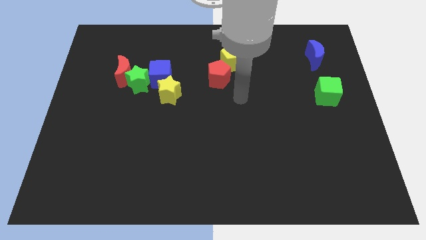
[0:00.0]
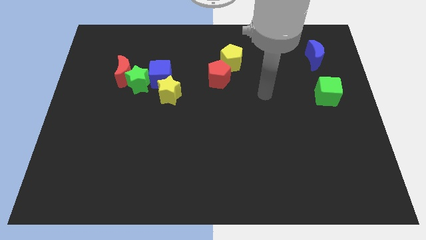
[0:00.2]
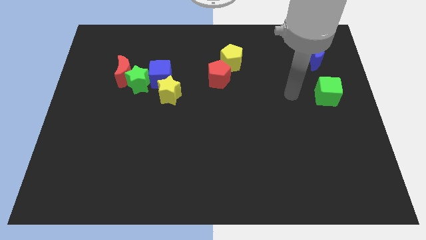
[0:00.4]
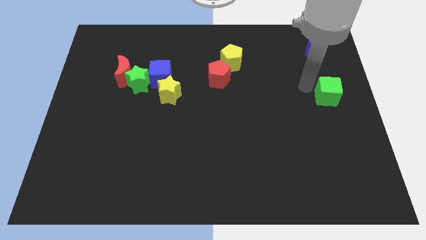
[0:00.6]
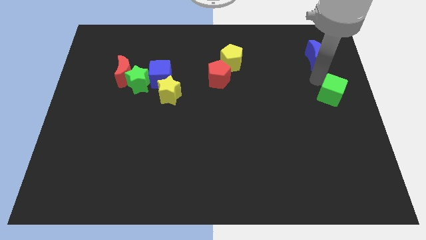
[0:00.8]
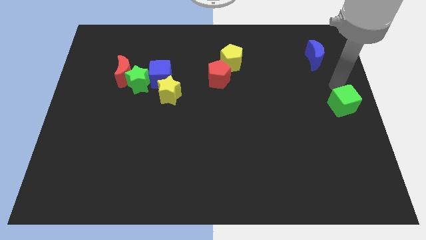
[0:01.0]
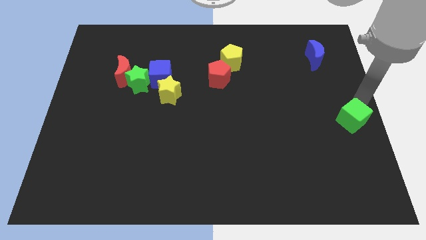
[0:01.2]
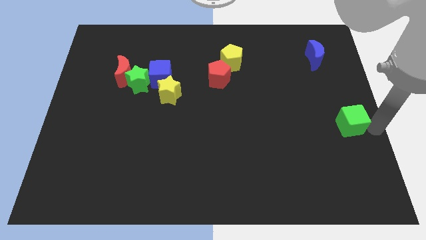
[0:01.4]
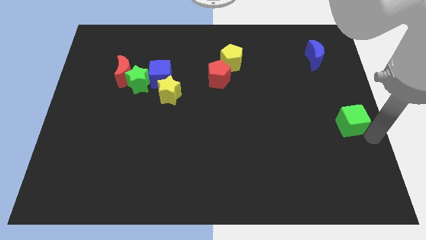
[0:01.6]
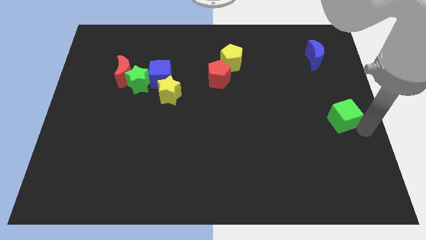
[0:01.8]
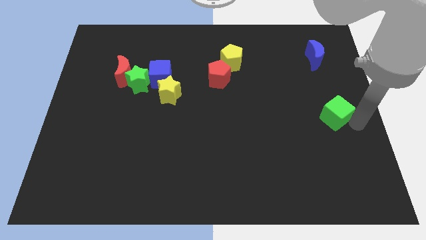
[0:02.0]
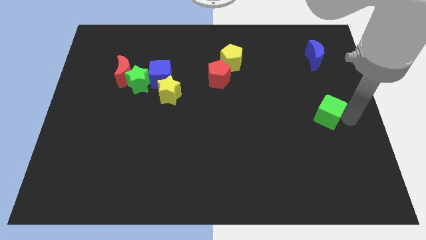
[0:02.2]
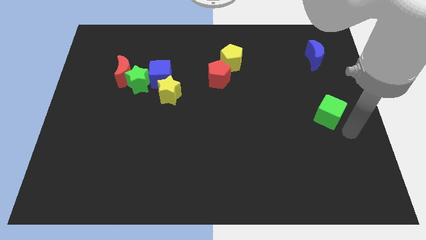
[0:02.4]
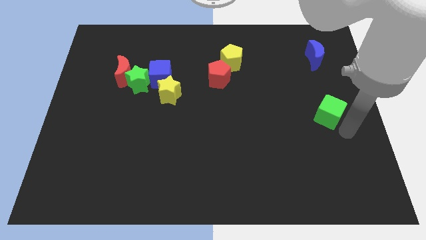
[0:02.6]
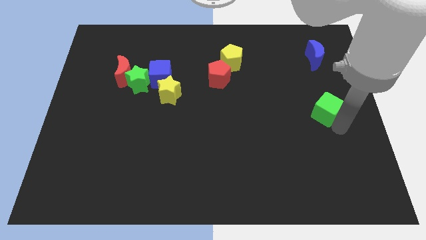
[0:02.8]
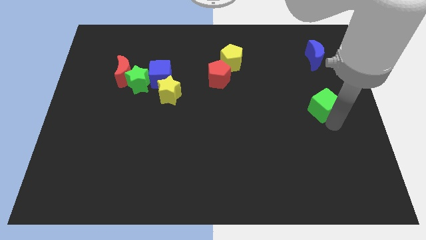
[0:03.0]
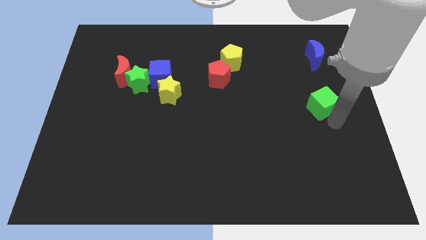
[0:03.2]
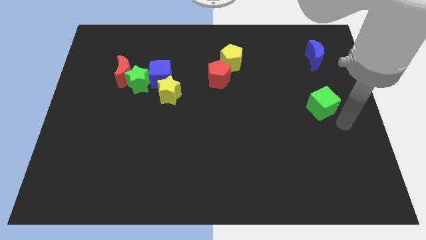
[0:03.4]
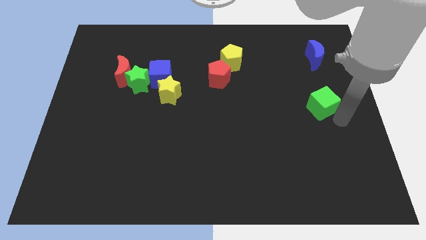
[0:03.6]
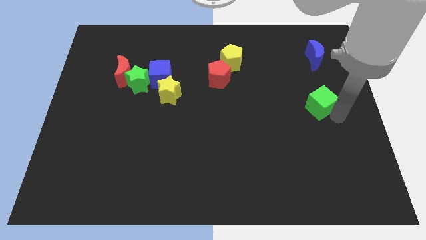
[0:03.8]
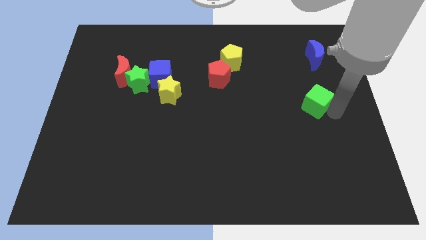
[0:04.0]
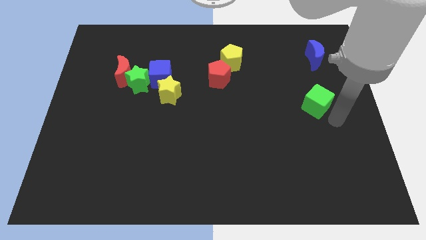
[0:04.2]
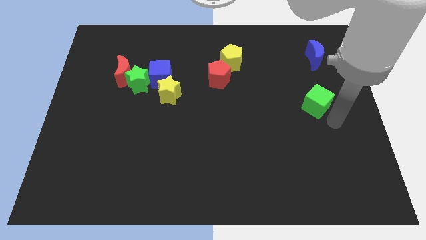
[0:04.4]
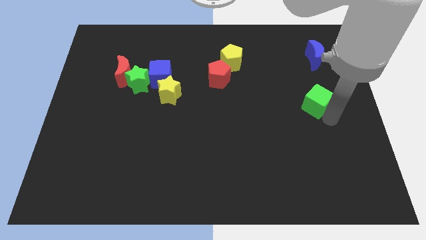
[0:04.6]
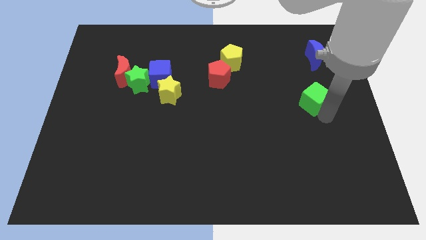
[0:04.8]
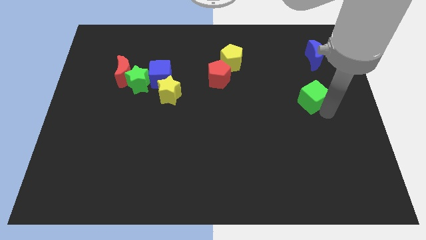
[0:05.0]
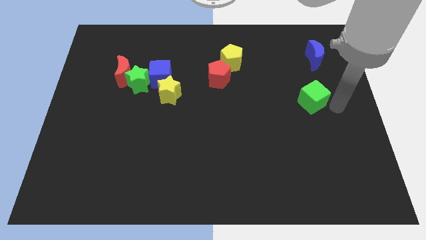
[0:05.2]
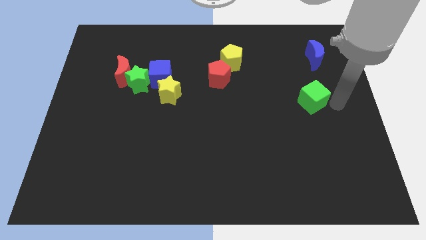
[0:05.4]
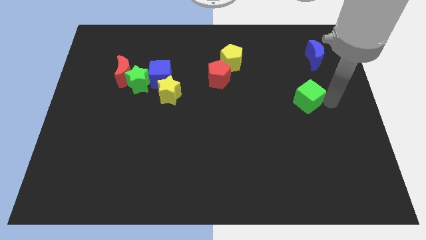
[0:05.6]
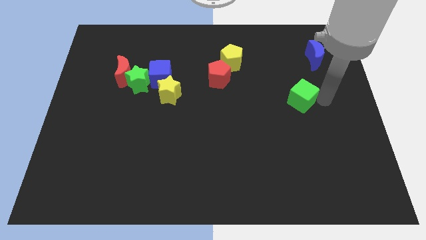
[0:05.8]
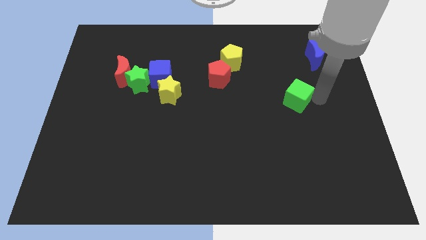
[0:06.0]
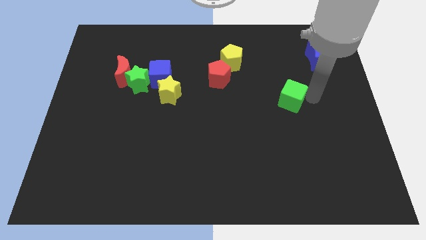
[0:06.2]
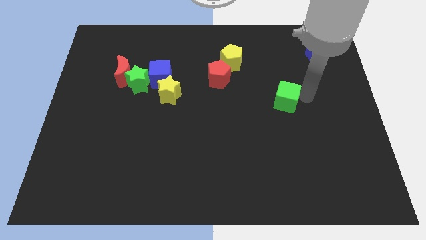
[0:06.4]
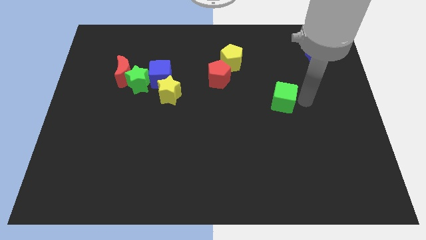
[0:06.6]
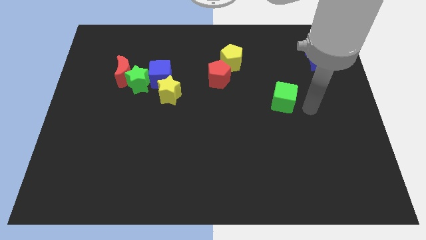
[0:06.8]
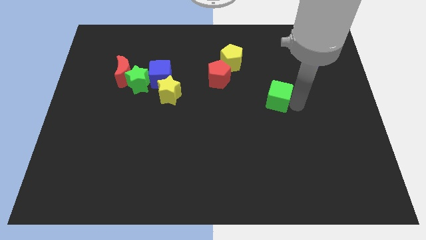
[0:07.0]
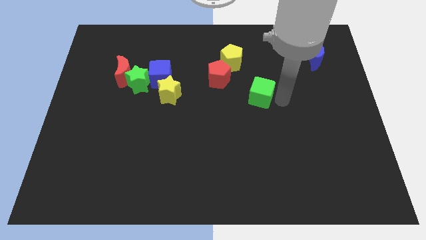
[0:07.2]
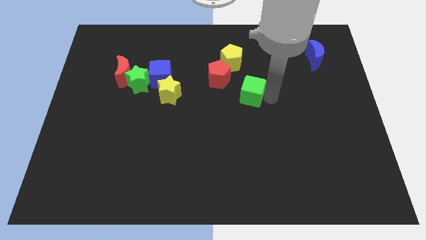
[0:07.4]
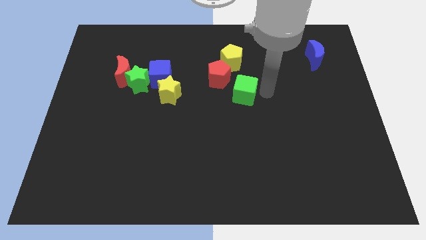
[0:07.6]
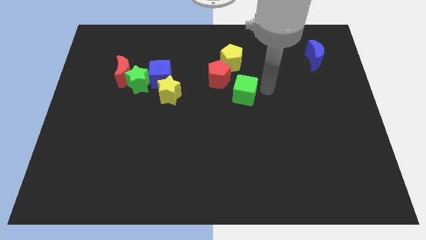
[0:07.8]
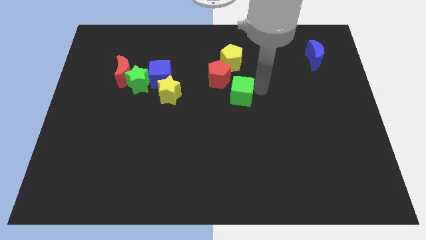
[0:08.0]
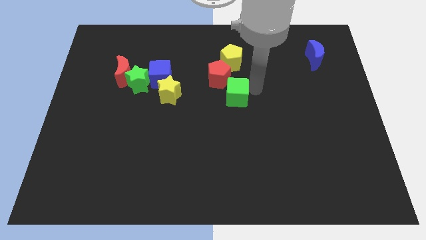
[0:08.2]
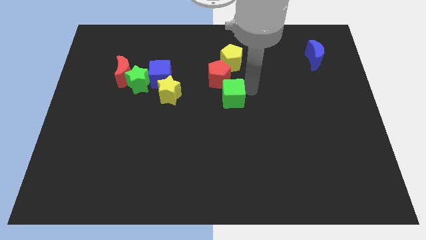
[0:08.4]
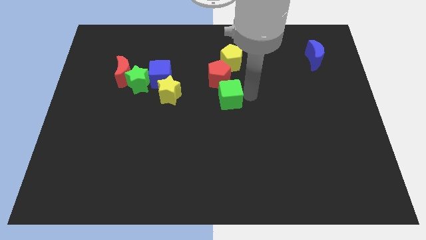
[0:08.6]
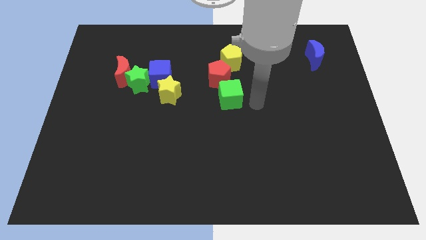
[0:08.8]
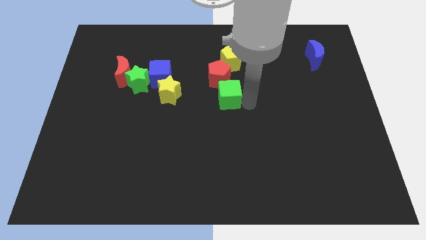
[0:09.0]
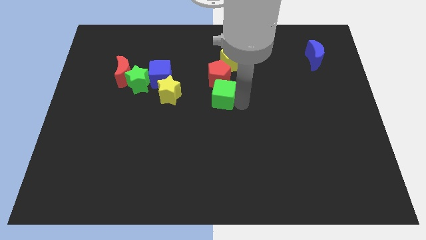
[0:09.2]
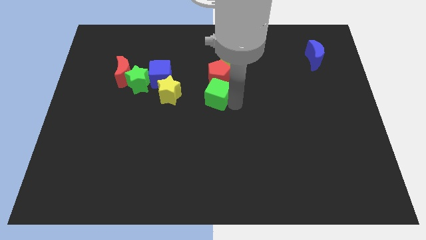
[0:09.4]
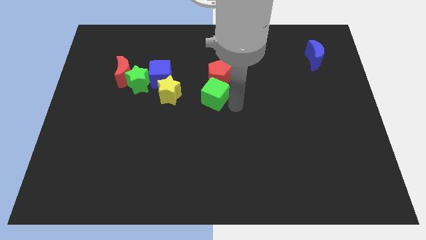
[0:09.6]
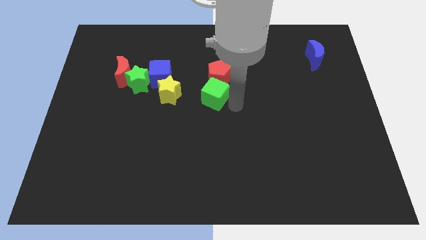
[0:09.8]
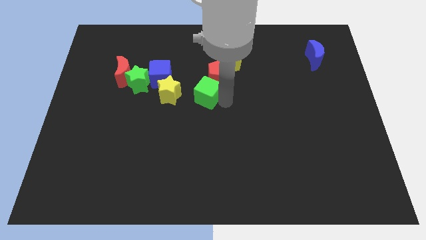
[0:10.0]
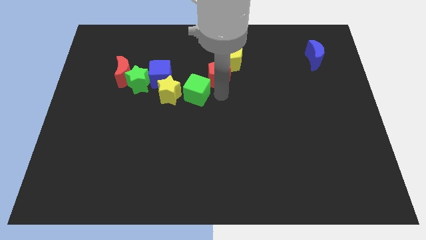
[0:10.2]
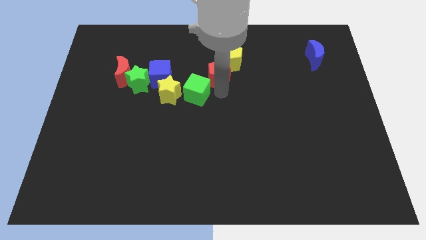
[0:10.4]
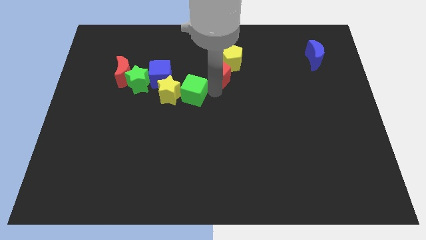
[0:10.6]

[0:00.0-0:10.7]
push the green cube towards the yellow star
